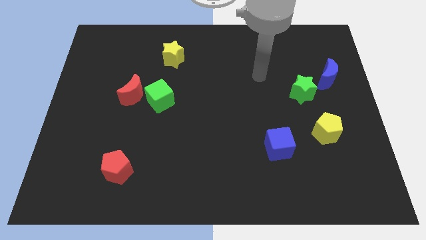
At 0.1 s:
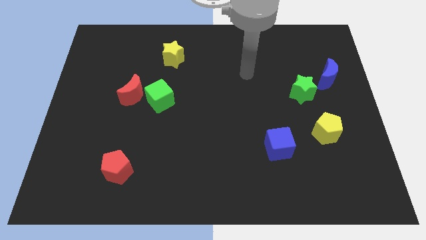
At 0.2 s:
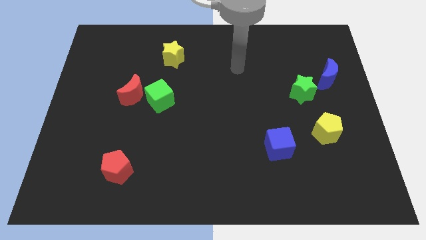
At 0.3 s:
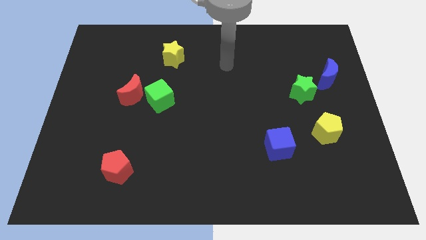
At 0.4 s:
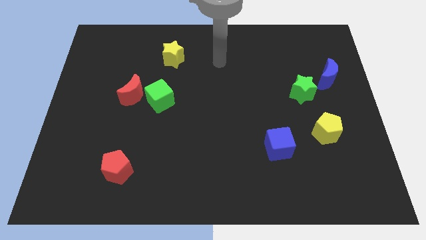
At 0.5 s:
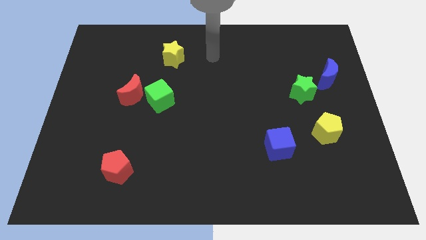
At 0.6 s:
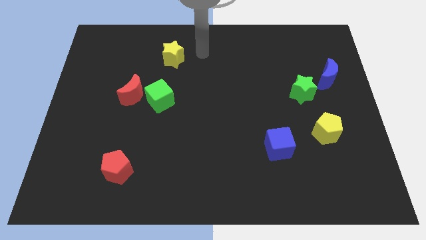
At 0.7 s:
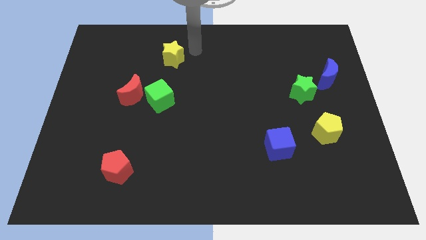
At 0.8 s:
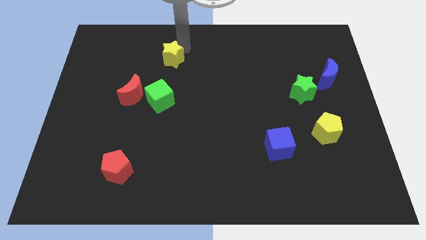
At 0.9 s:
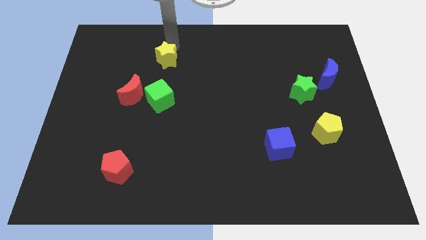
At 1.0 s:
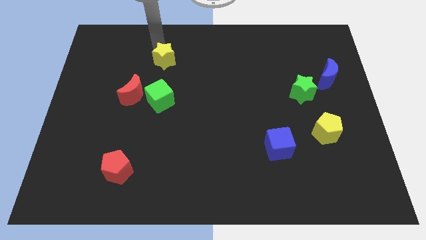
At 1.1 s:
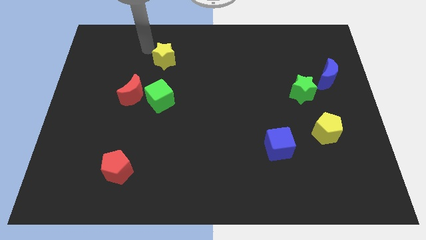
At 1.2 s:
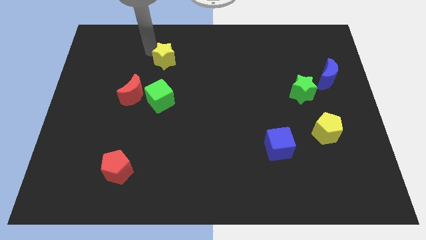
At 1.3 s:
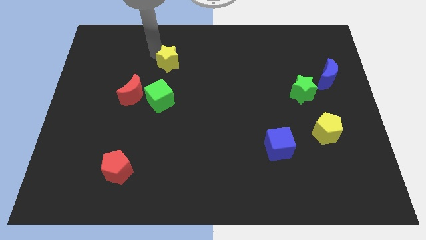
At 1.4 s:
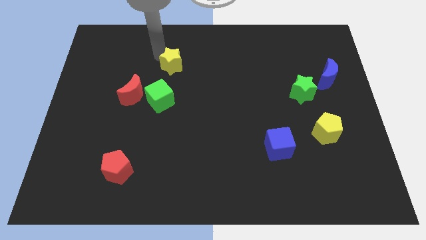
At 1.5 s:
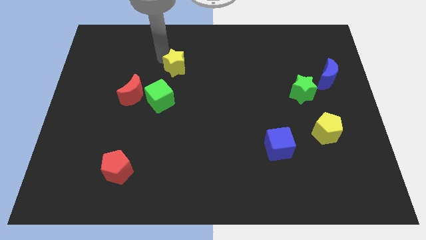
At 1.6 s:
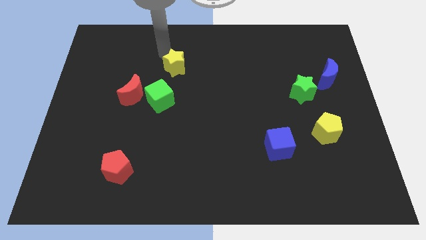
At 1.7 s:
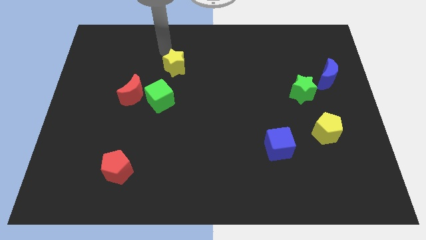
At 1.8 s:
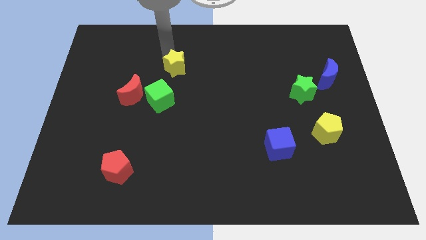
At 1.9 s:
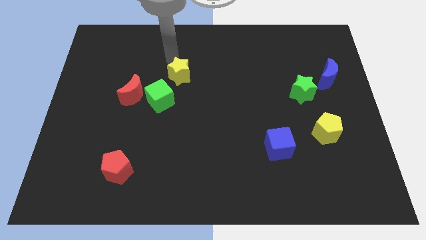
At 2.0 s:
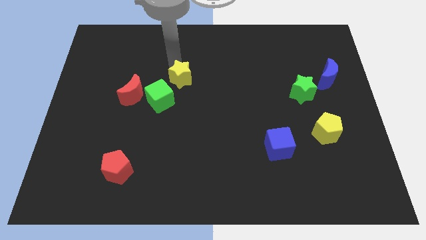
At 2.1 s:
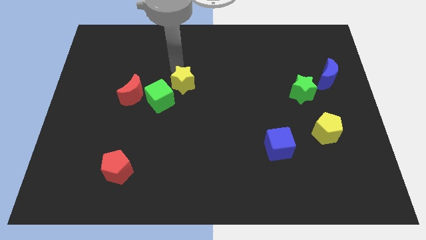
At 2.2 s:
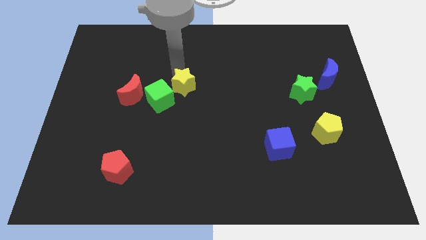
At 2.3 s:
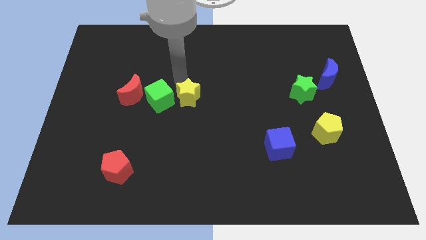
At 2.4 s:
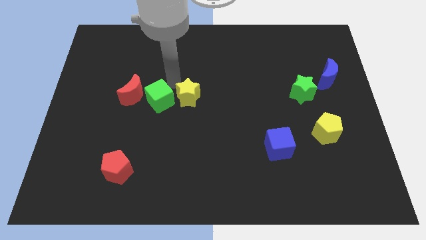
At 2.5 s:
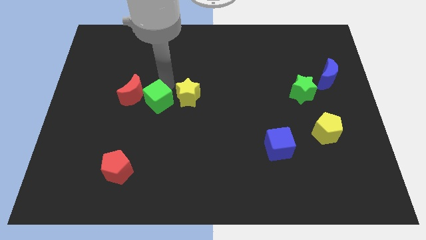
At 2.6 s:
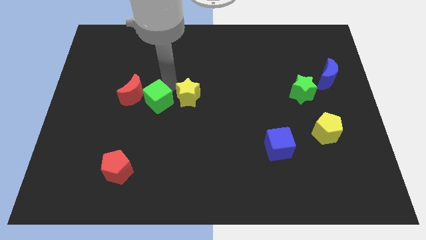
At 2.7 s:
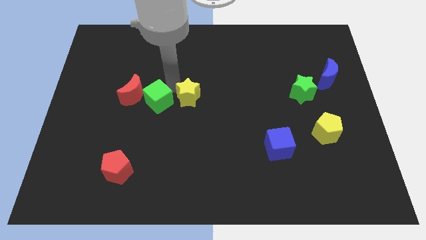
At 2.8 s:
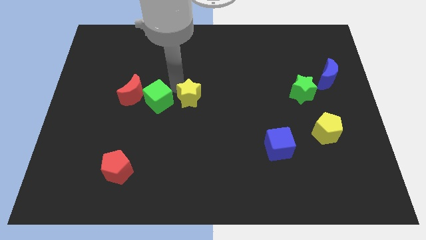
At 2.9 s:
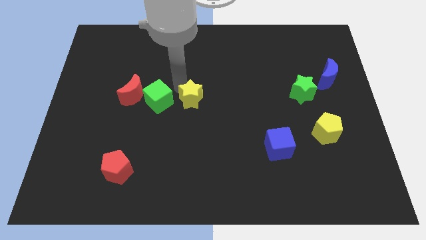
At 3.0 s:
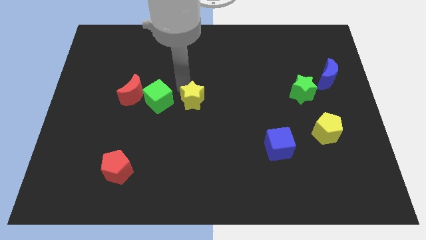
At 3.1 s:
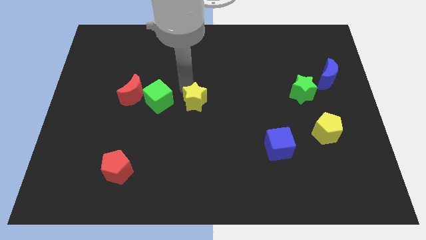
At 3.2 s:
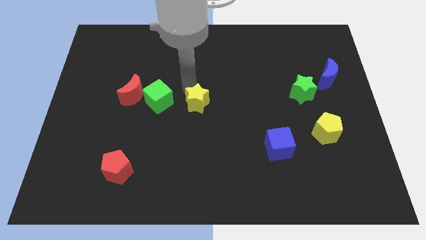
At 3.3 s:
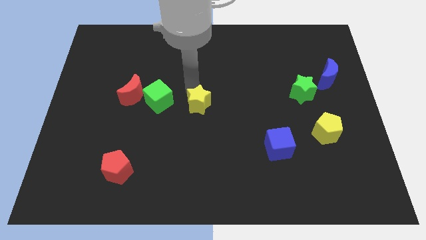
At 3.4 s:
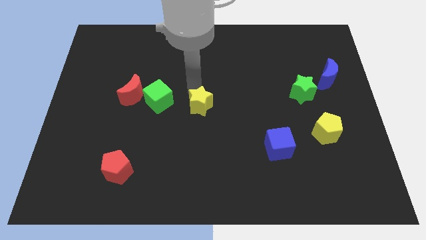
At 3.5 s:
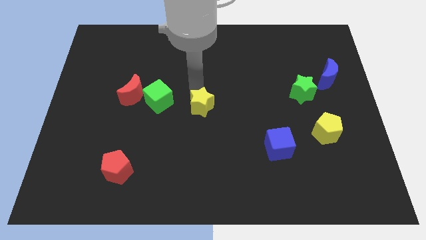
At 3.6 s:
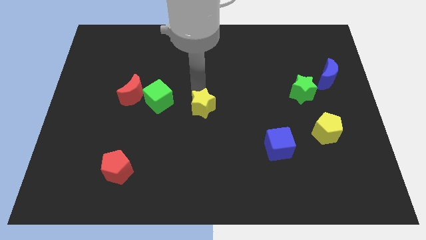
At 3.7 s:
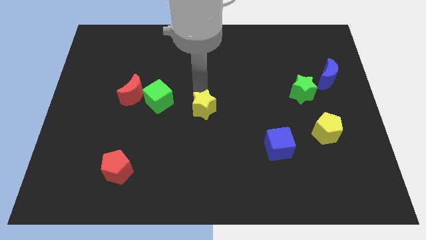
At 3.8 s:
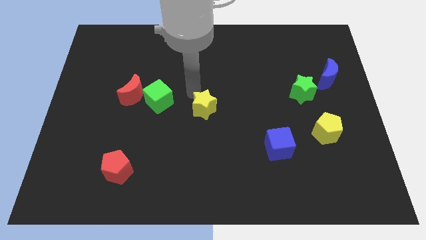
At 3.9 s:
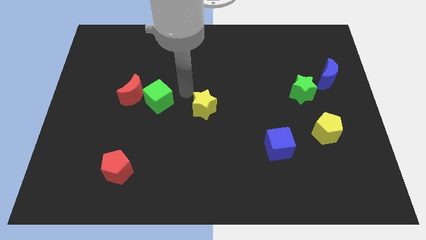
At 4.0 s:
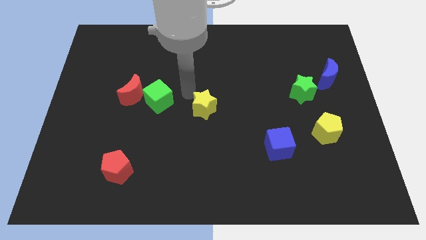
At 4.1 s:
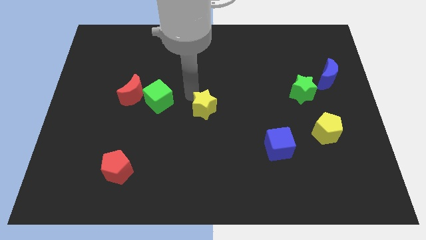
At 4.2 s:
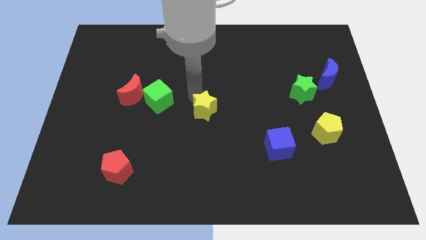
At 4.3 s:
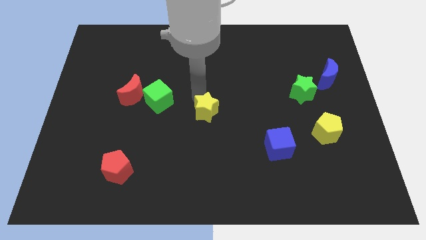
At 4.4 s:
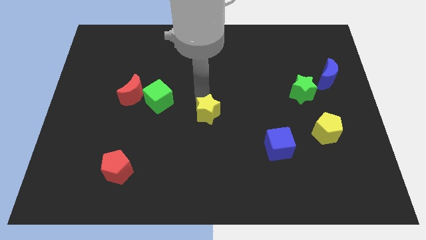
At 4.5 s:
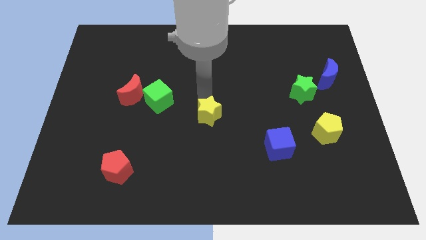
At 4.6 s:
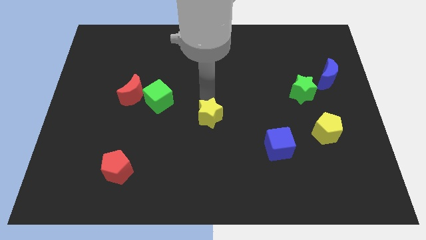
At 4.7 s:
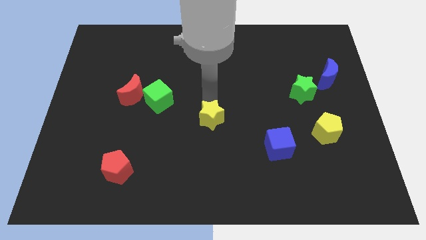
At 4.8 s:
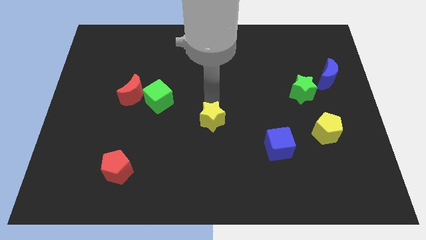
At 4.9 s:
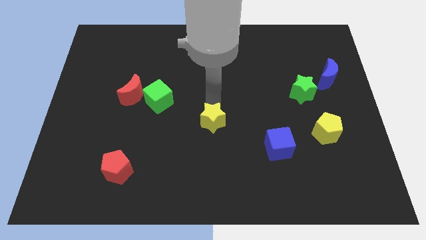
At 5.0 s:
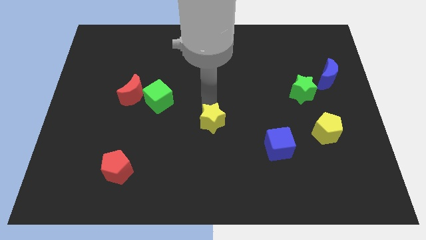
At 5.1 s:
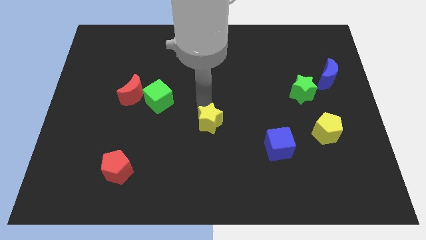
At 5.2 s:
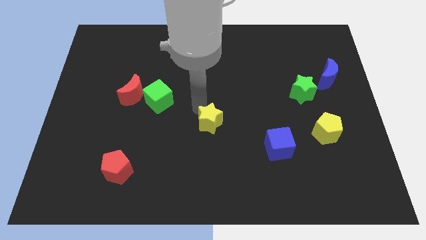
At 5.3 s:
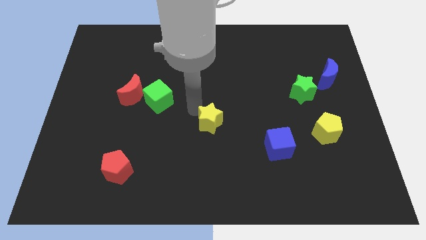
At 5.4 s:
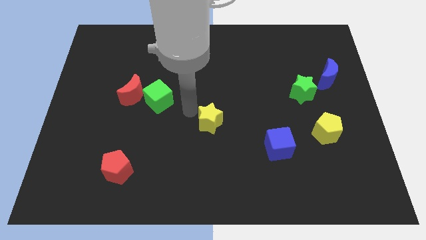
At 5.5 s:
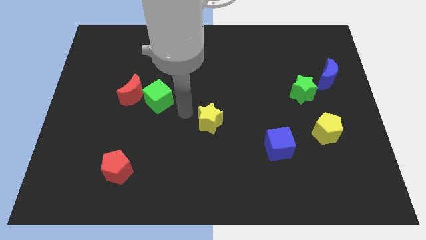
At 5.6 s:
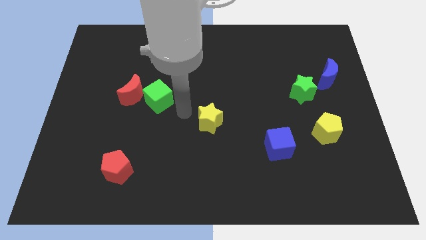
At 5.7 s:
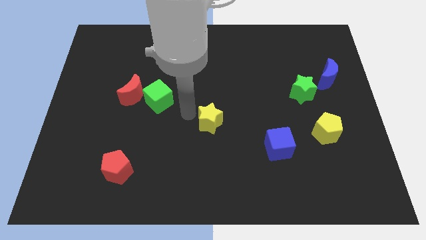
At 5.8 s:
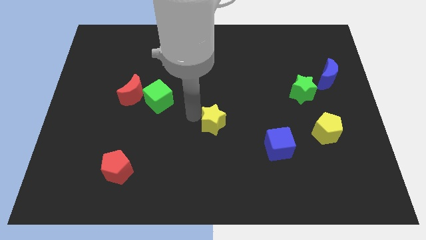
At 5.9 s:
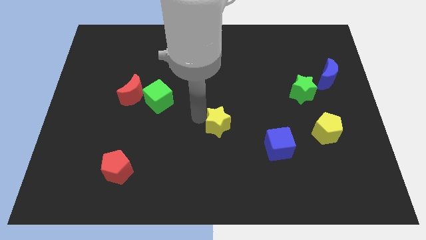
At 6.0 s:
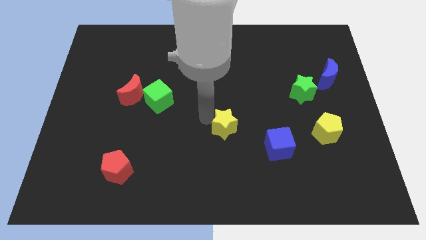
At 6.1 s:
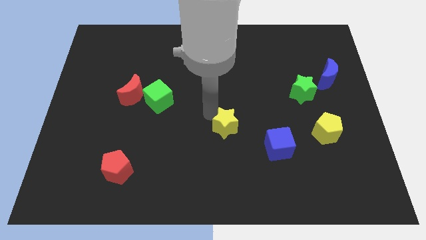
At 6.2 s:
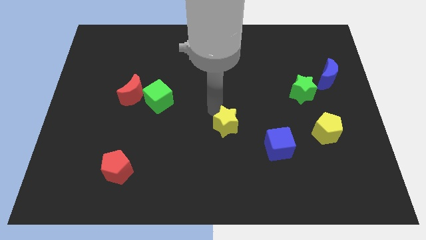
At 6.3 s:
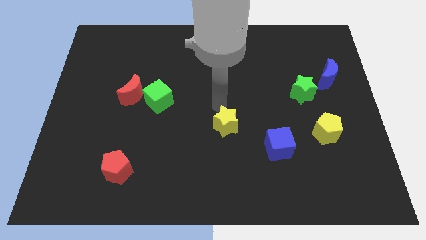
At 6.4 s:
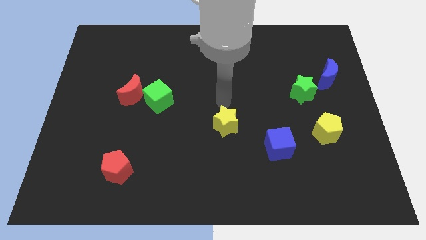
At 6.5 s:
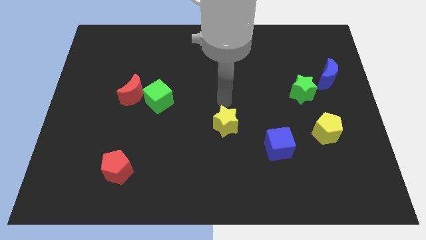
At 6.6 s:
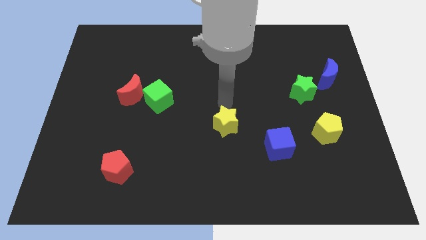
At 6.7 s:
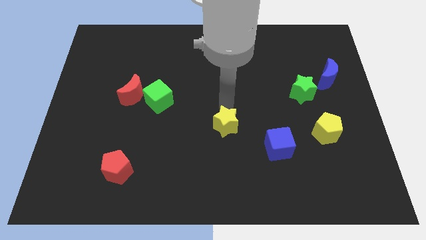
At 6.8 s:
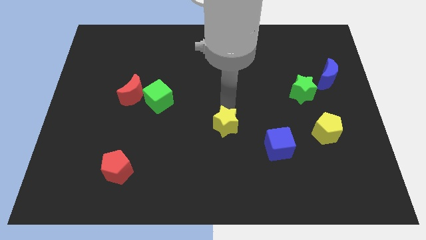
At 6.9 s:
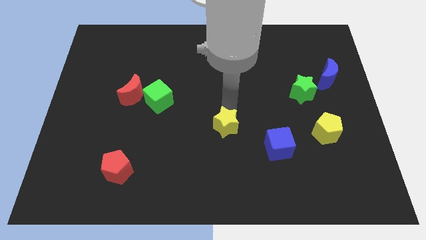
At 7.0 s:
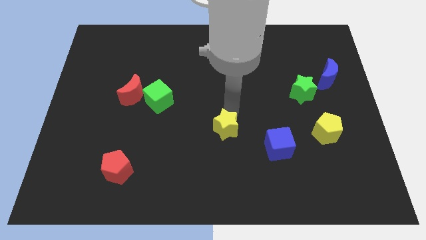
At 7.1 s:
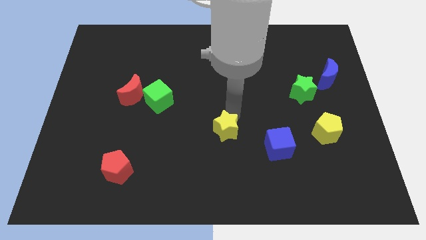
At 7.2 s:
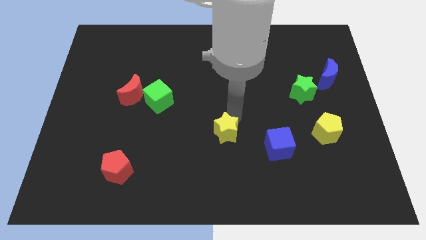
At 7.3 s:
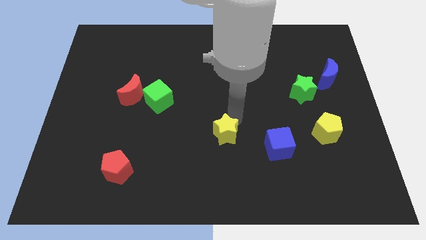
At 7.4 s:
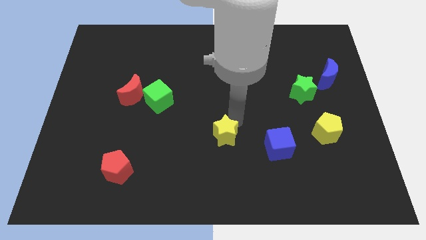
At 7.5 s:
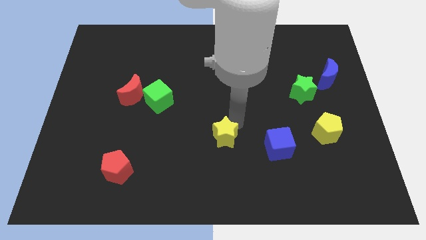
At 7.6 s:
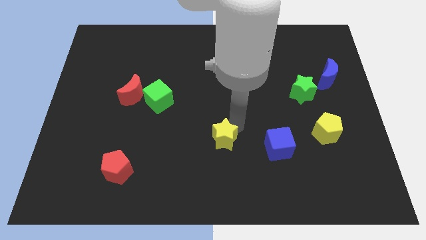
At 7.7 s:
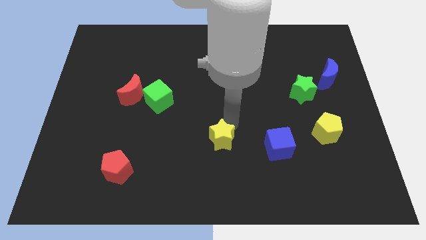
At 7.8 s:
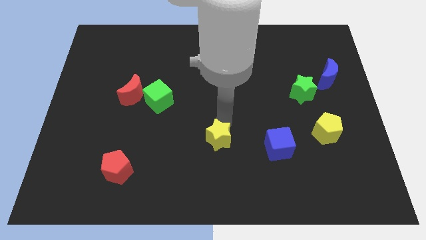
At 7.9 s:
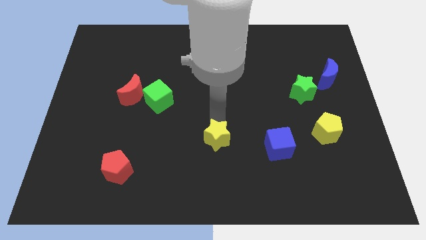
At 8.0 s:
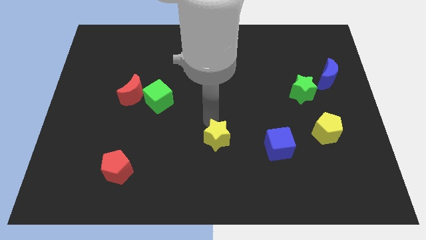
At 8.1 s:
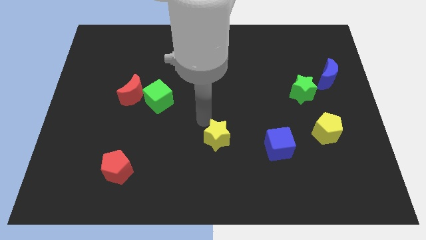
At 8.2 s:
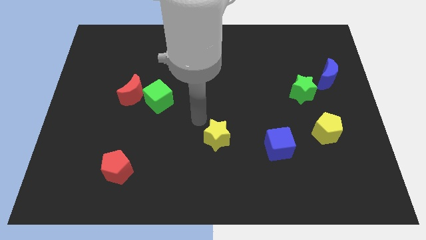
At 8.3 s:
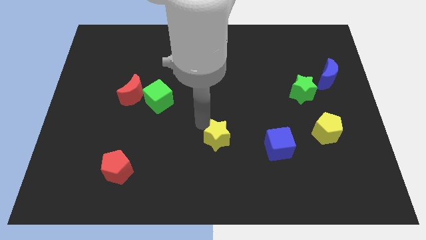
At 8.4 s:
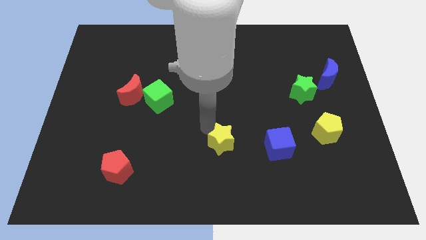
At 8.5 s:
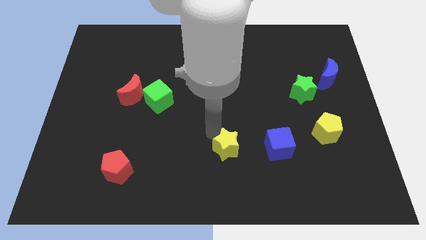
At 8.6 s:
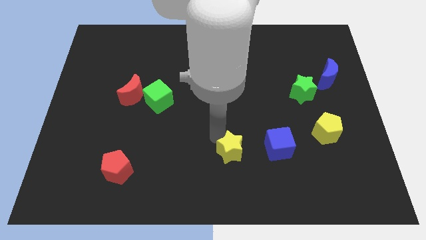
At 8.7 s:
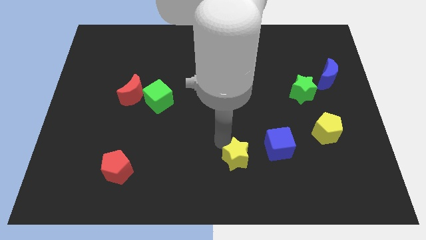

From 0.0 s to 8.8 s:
move the yellow star diagonally down and to the left of the blue cube
